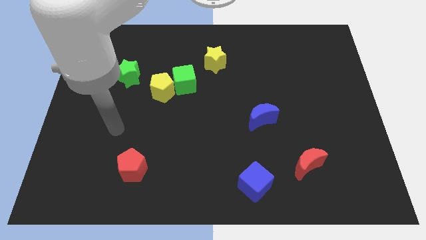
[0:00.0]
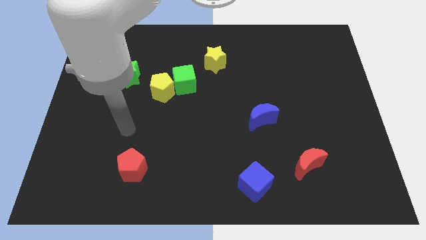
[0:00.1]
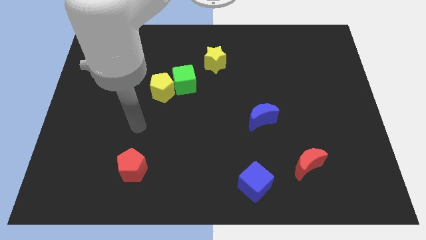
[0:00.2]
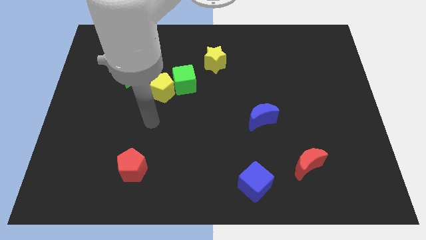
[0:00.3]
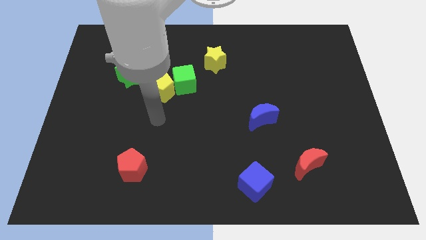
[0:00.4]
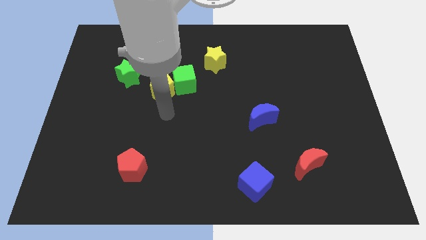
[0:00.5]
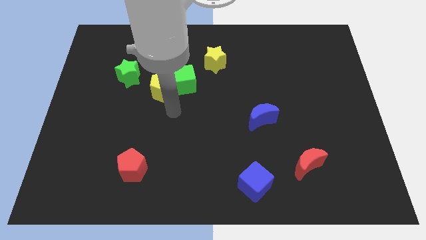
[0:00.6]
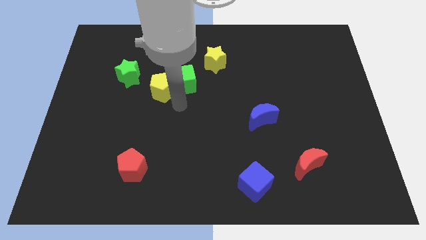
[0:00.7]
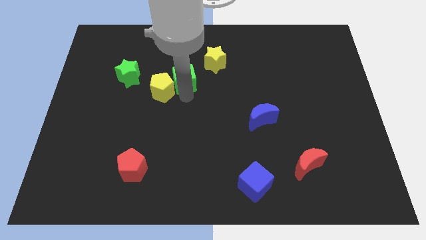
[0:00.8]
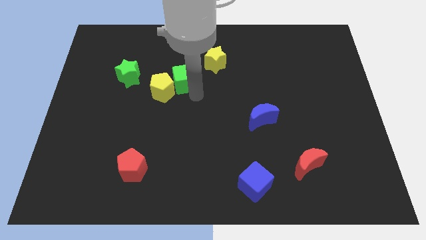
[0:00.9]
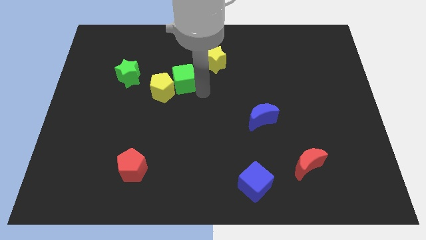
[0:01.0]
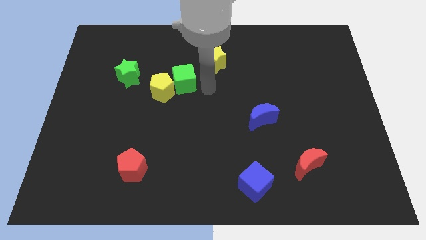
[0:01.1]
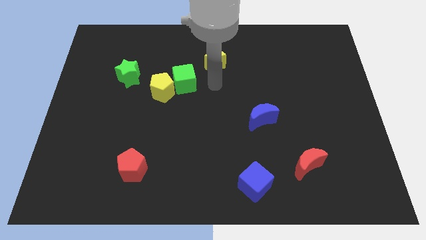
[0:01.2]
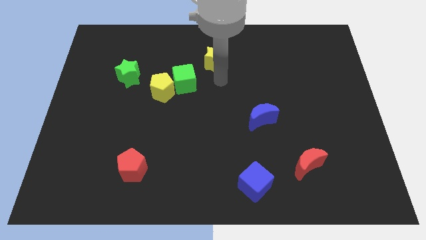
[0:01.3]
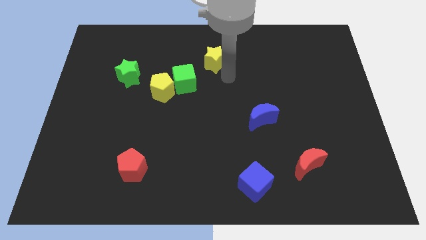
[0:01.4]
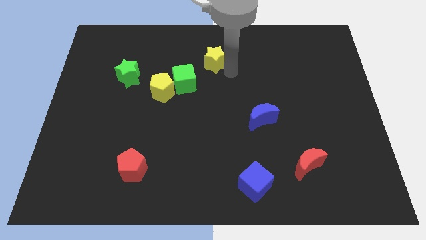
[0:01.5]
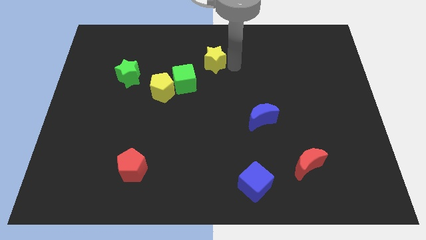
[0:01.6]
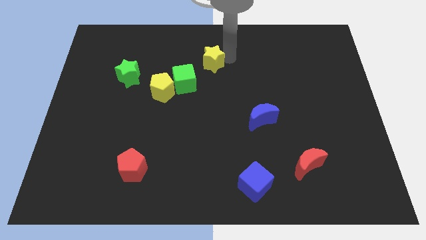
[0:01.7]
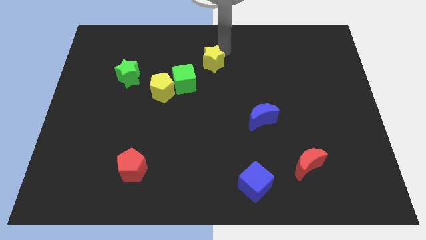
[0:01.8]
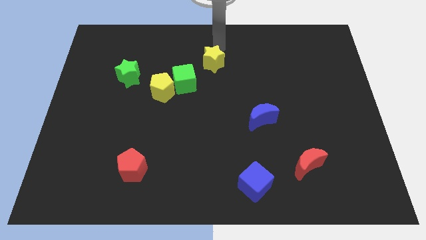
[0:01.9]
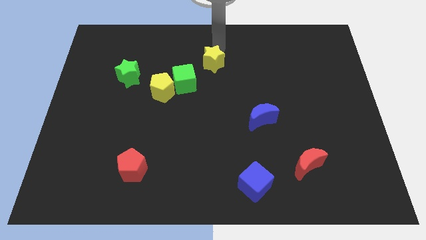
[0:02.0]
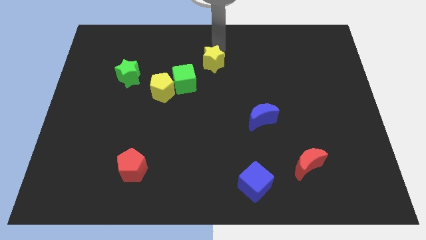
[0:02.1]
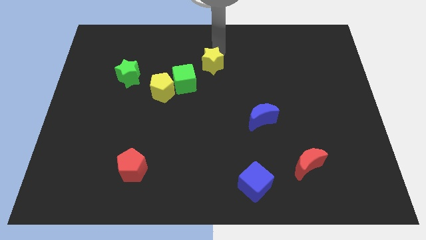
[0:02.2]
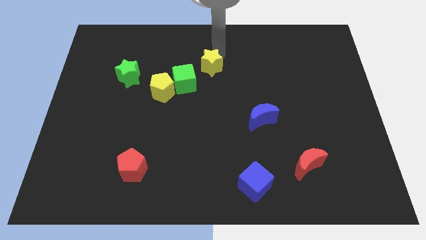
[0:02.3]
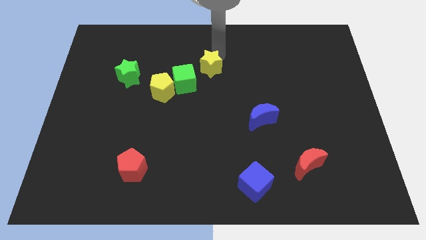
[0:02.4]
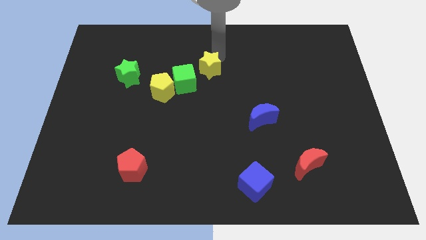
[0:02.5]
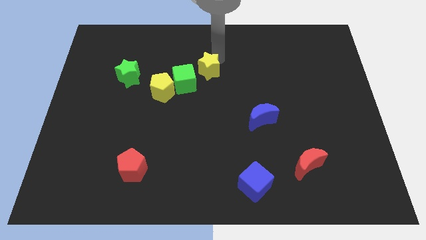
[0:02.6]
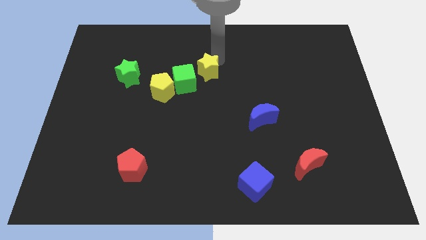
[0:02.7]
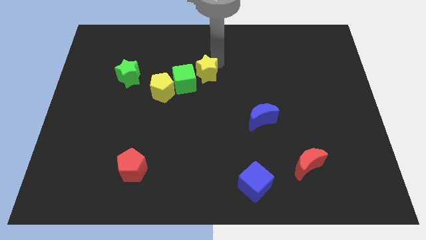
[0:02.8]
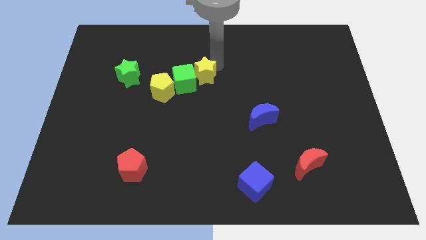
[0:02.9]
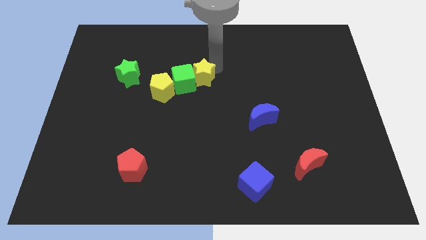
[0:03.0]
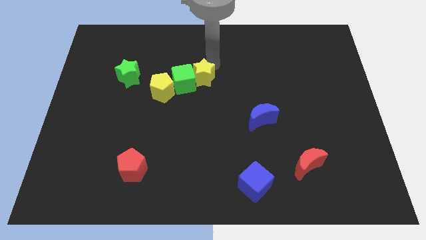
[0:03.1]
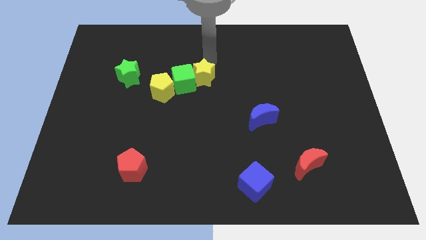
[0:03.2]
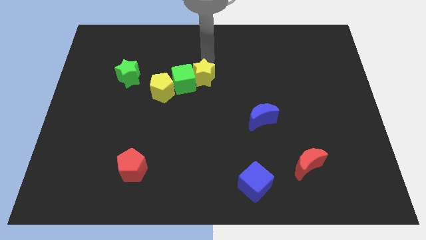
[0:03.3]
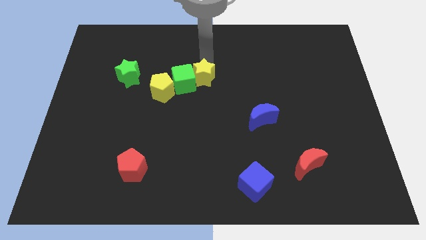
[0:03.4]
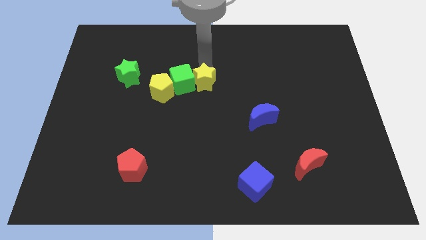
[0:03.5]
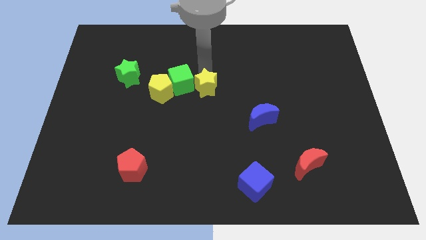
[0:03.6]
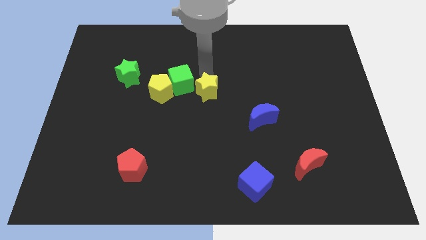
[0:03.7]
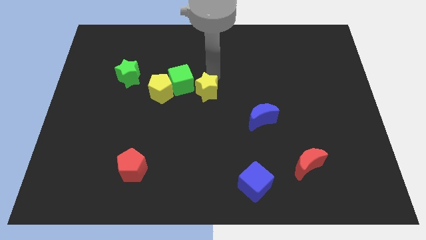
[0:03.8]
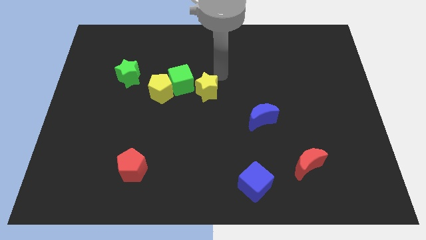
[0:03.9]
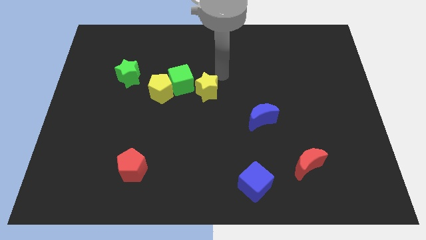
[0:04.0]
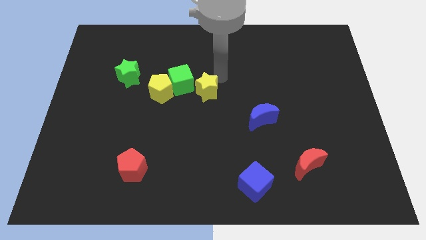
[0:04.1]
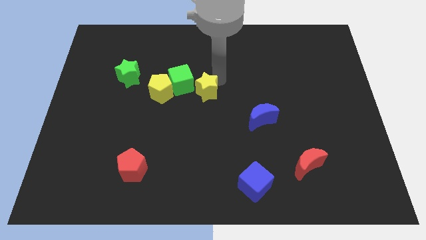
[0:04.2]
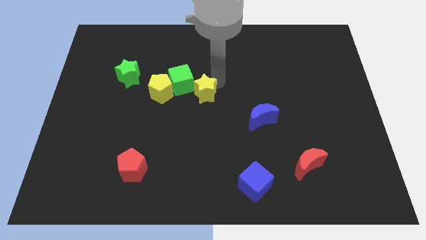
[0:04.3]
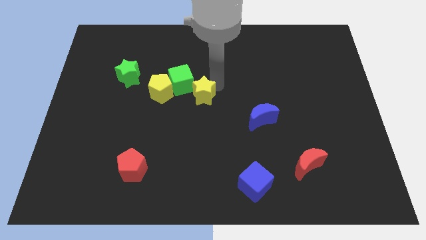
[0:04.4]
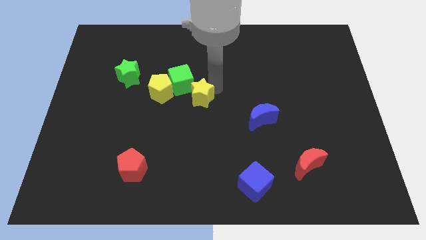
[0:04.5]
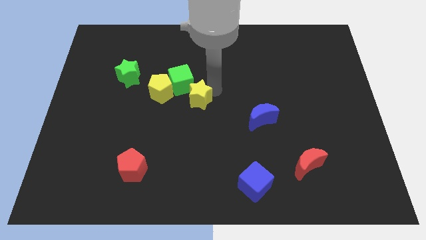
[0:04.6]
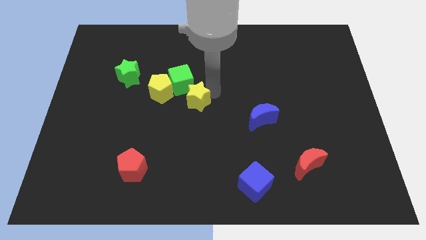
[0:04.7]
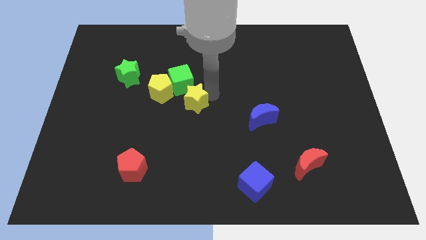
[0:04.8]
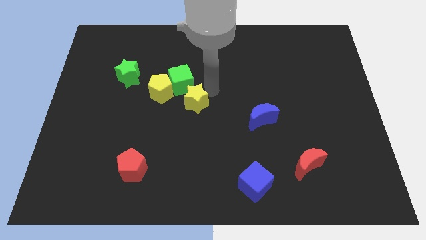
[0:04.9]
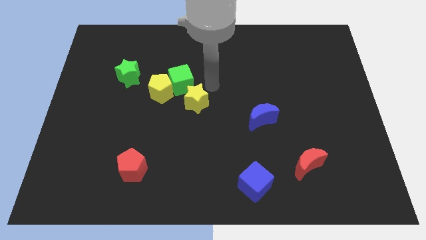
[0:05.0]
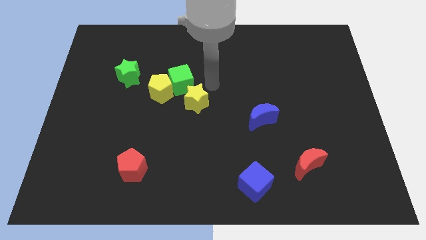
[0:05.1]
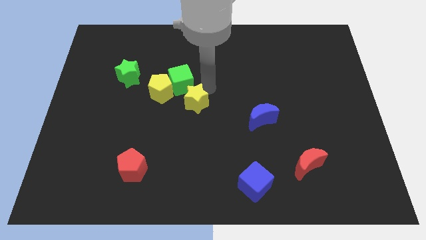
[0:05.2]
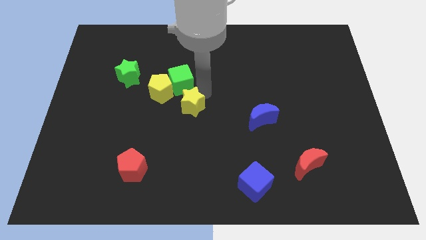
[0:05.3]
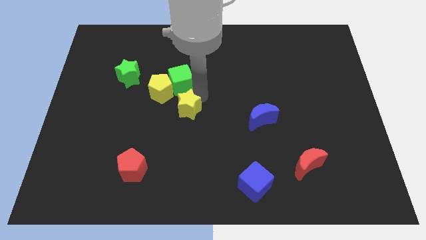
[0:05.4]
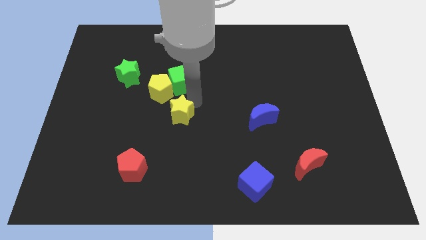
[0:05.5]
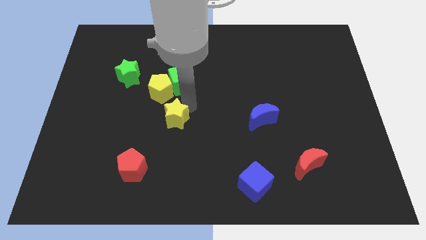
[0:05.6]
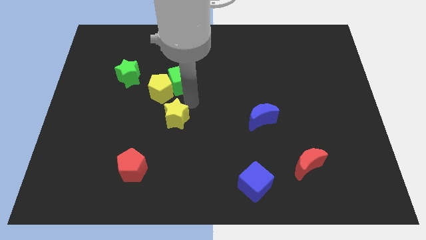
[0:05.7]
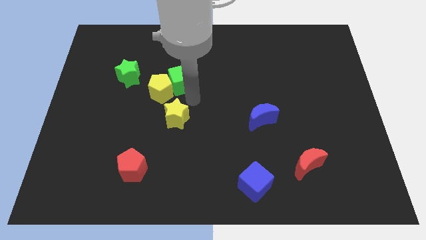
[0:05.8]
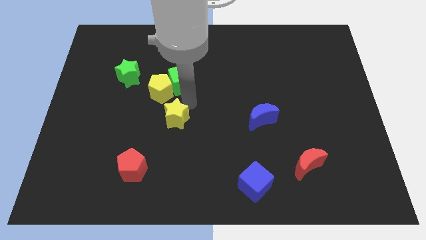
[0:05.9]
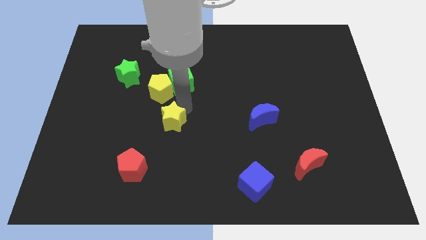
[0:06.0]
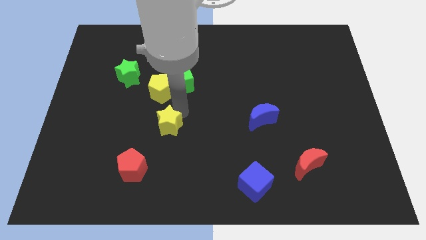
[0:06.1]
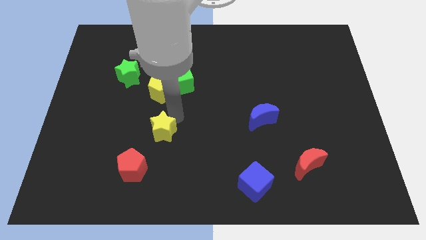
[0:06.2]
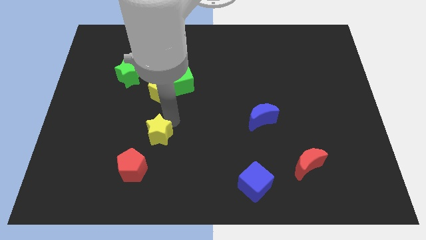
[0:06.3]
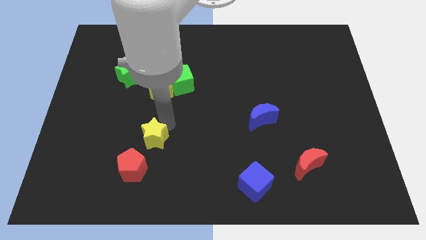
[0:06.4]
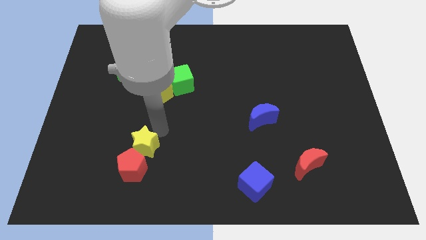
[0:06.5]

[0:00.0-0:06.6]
slide the yellow star next to the red pentagon

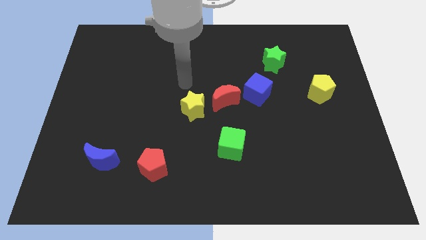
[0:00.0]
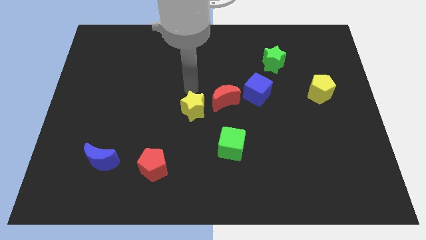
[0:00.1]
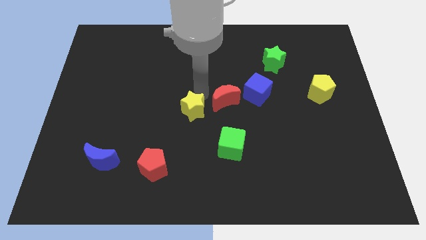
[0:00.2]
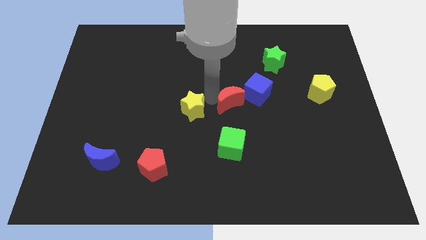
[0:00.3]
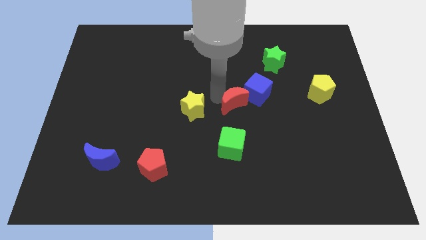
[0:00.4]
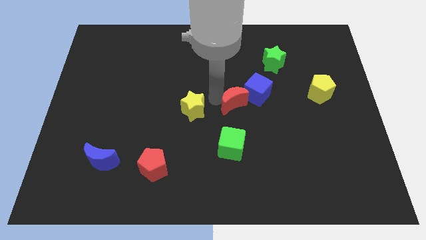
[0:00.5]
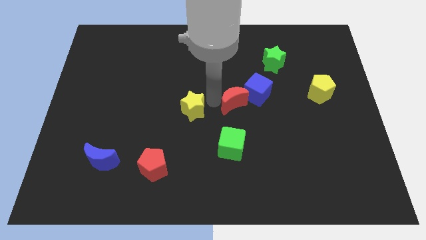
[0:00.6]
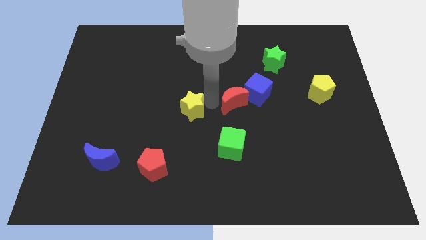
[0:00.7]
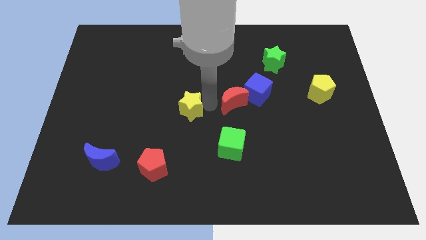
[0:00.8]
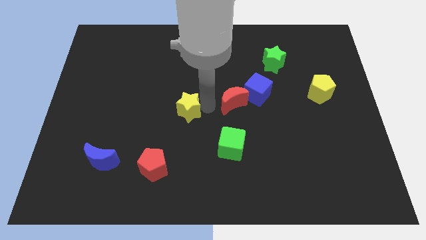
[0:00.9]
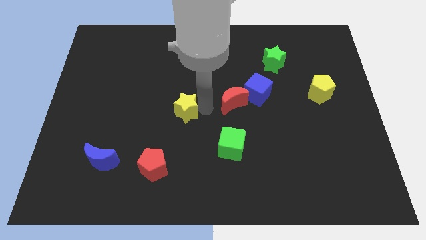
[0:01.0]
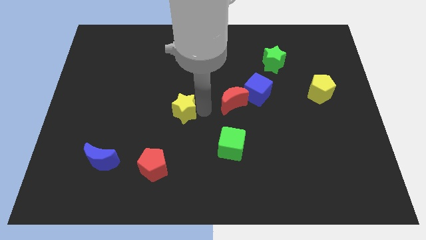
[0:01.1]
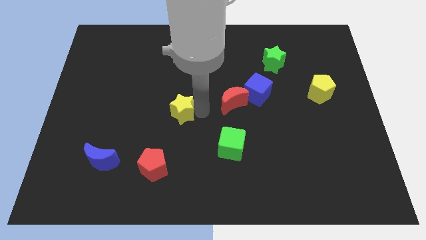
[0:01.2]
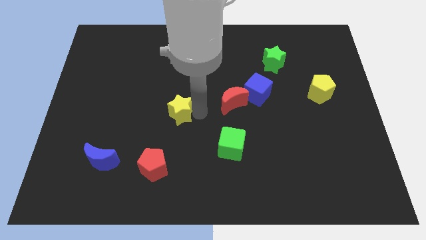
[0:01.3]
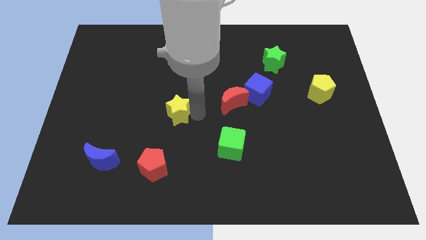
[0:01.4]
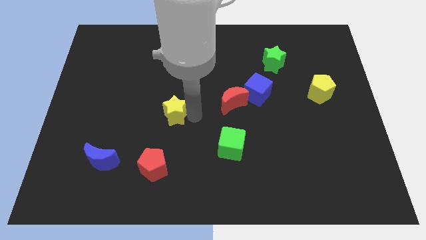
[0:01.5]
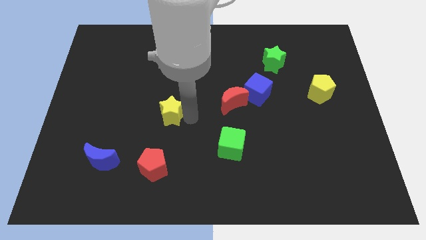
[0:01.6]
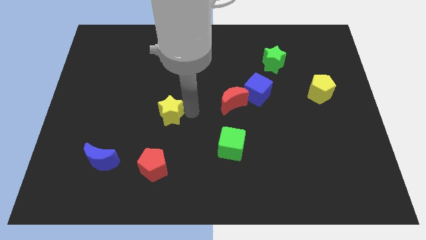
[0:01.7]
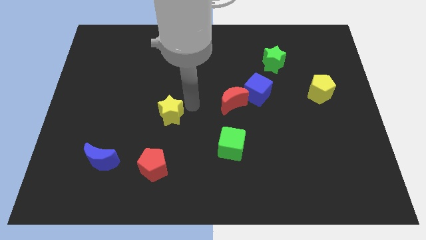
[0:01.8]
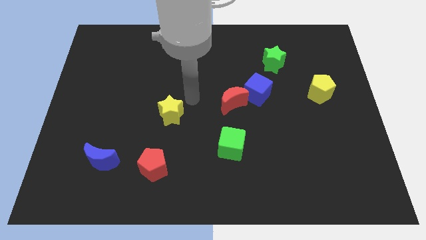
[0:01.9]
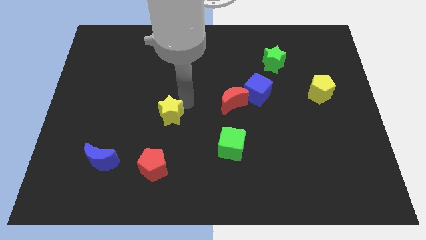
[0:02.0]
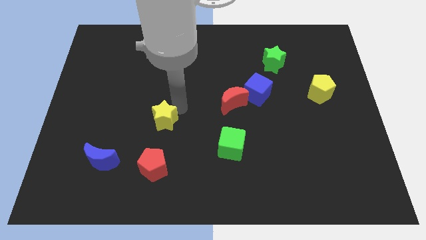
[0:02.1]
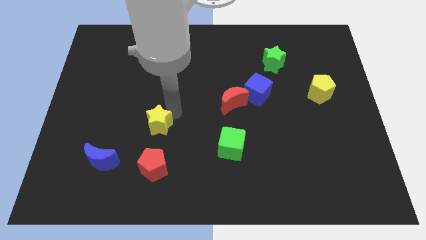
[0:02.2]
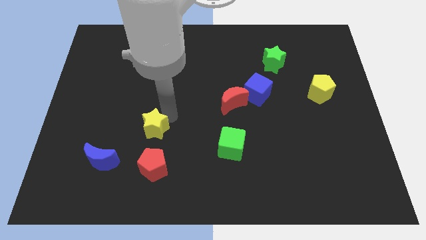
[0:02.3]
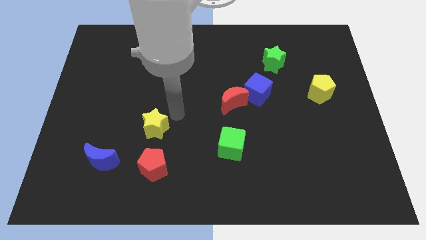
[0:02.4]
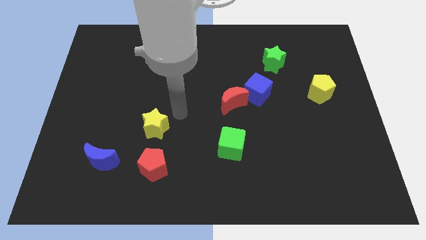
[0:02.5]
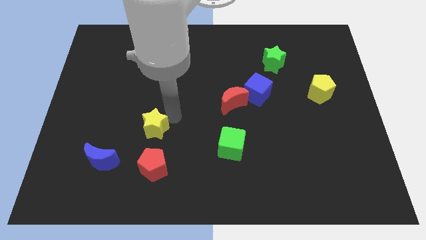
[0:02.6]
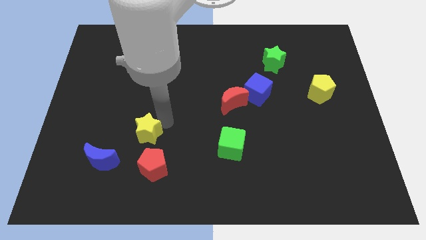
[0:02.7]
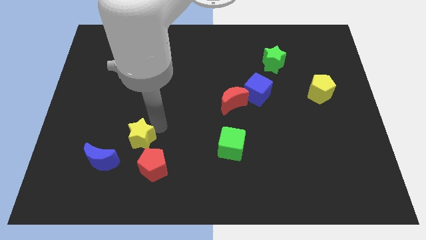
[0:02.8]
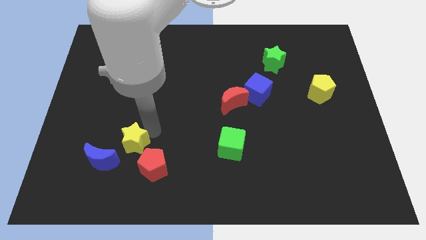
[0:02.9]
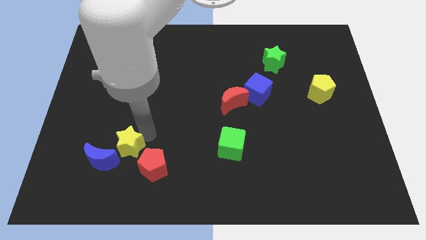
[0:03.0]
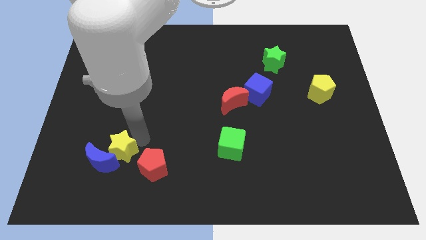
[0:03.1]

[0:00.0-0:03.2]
move the yellow star close to the blue moon
